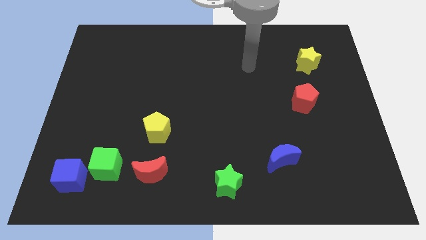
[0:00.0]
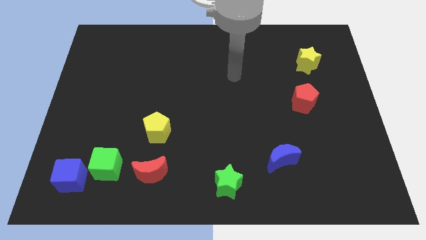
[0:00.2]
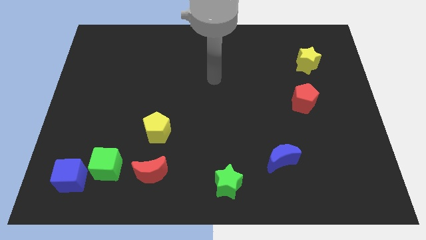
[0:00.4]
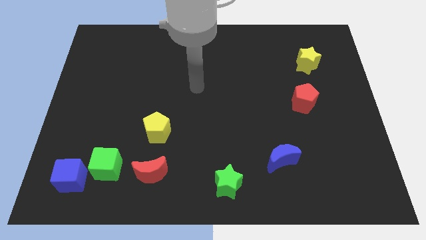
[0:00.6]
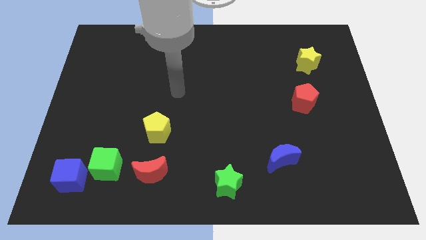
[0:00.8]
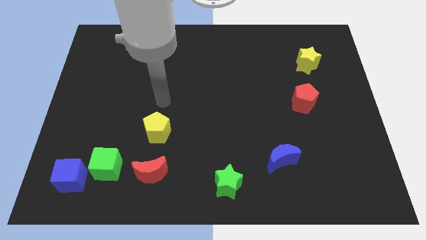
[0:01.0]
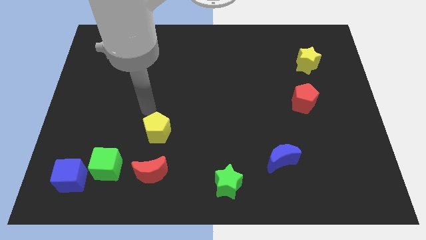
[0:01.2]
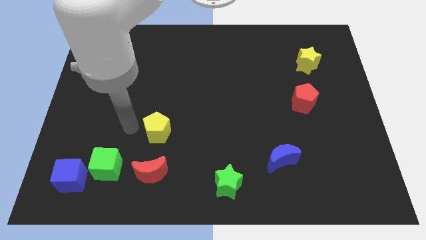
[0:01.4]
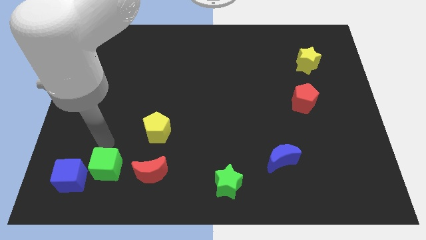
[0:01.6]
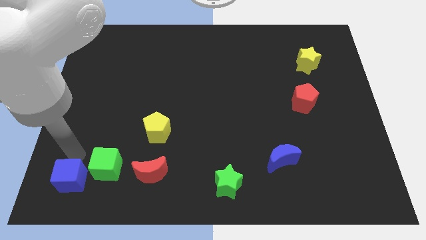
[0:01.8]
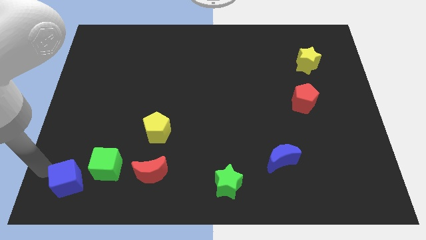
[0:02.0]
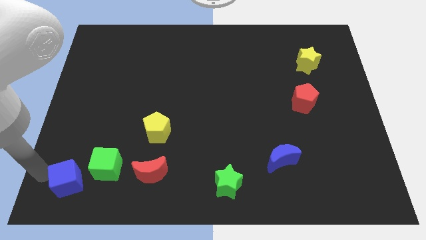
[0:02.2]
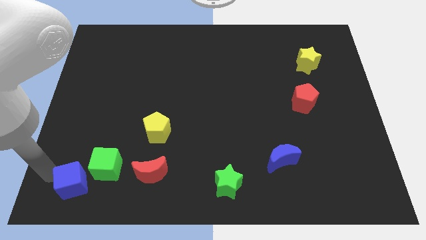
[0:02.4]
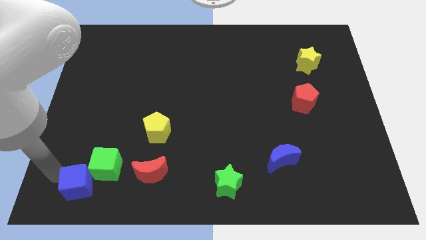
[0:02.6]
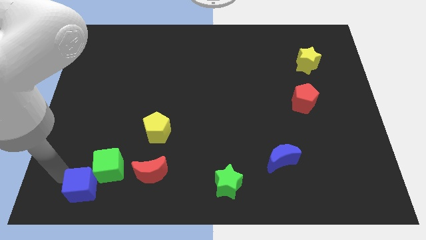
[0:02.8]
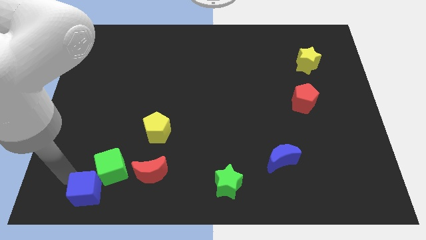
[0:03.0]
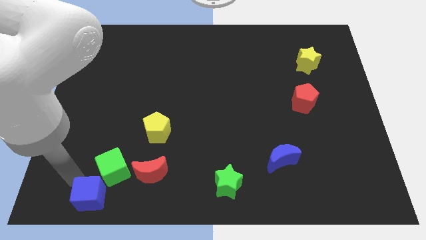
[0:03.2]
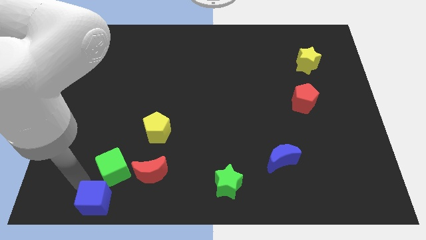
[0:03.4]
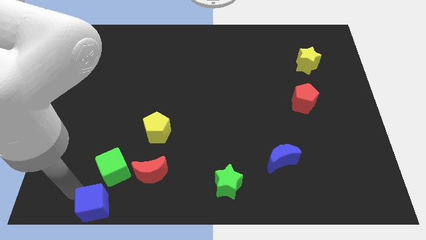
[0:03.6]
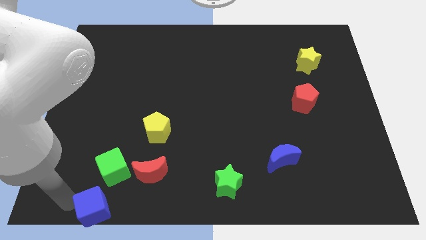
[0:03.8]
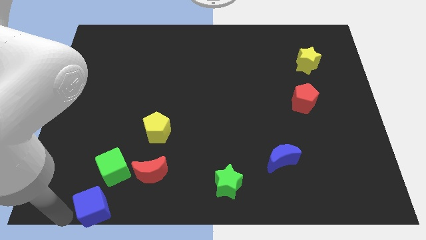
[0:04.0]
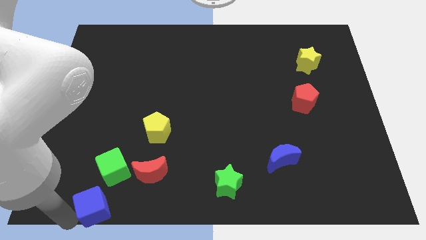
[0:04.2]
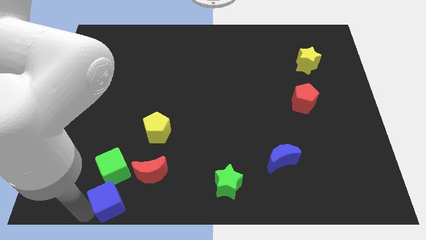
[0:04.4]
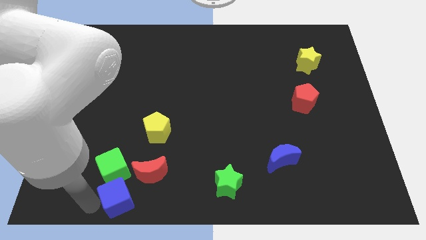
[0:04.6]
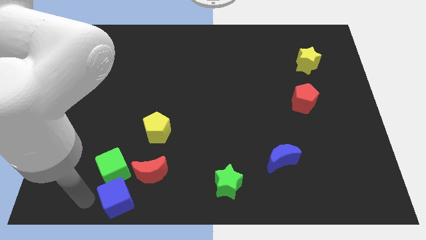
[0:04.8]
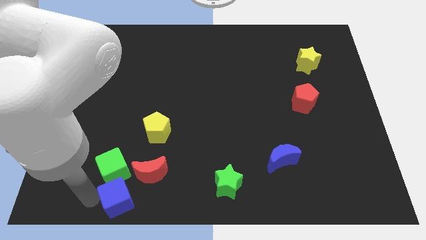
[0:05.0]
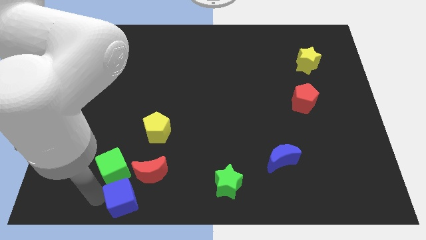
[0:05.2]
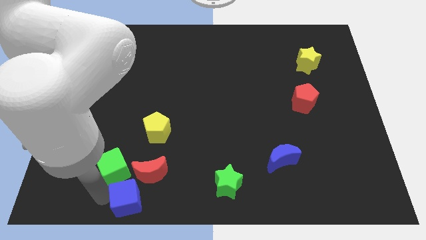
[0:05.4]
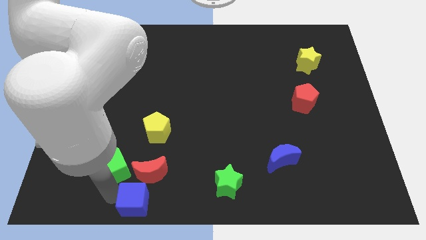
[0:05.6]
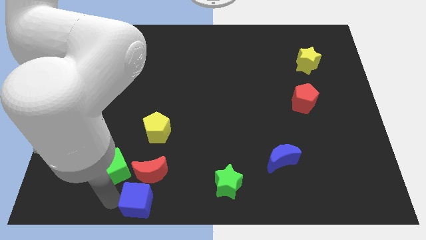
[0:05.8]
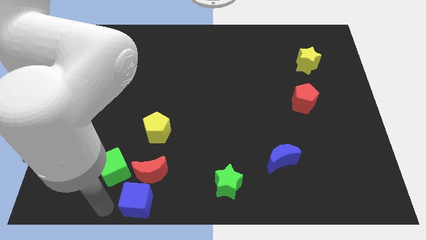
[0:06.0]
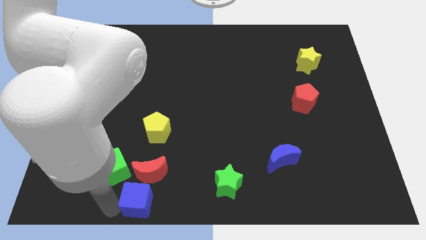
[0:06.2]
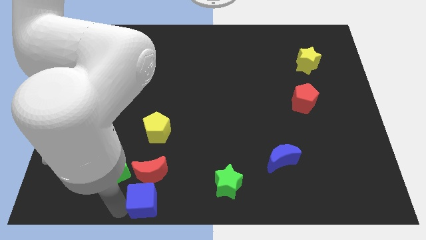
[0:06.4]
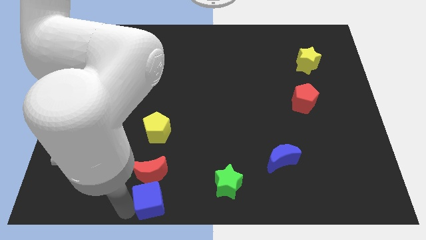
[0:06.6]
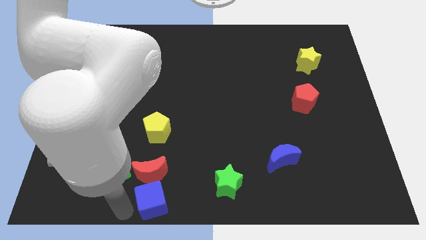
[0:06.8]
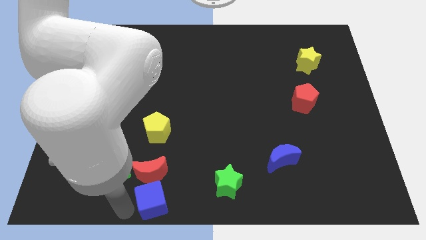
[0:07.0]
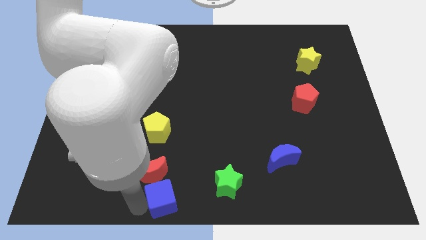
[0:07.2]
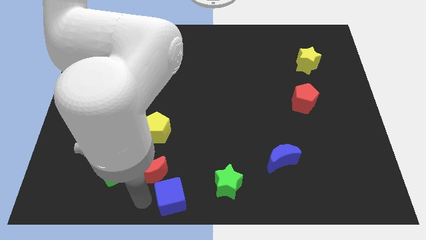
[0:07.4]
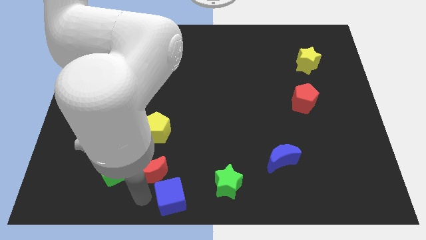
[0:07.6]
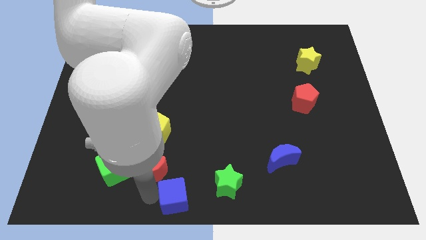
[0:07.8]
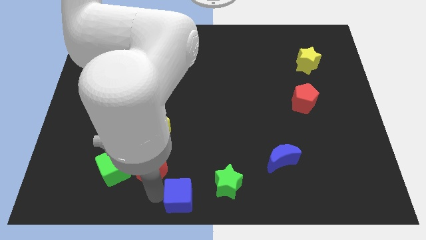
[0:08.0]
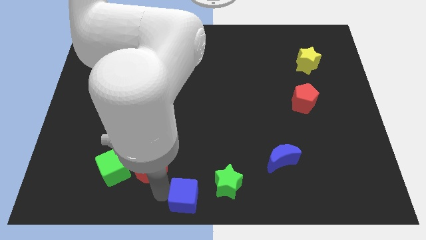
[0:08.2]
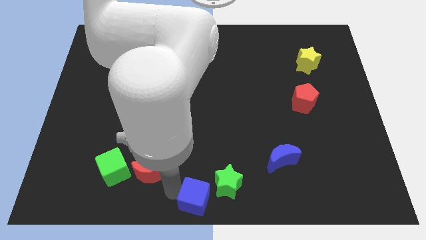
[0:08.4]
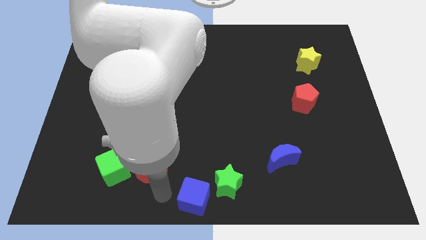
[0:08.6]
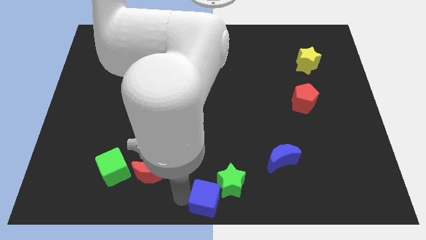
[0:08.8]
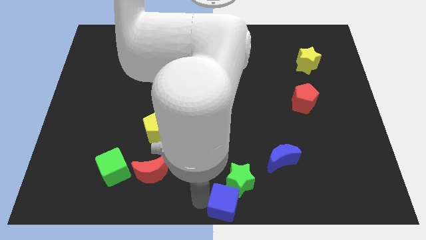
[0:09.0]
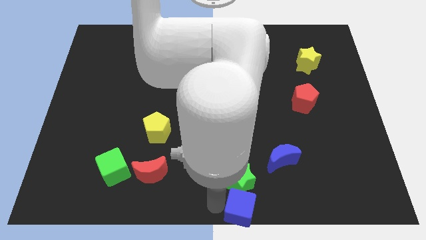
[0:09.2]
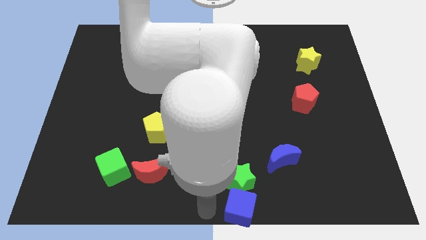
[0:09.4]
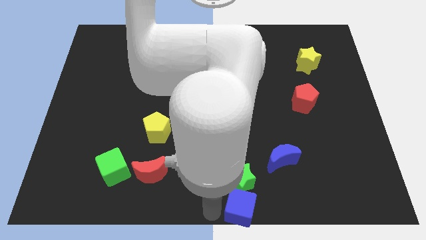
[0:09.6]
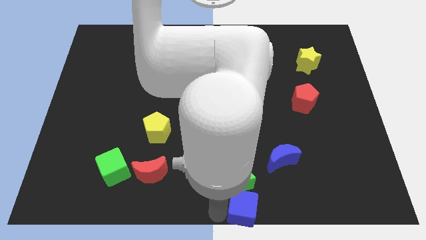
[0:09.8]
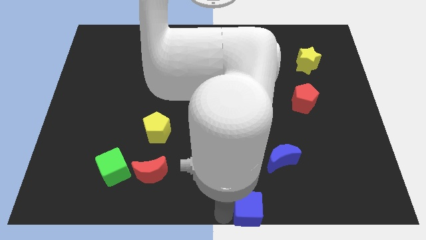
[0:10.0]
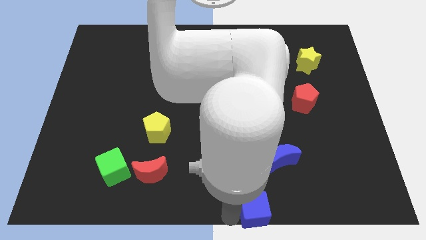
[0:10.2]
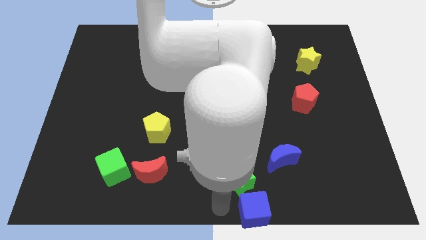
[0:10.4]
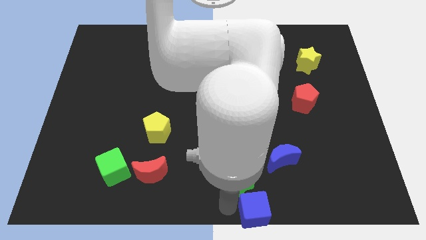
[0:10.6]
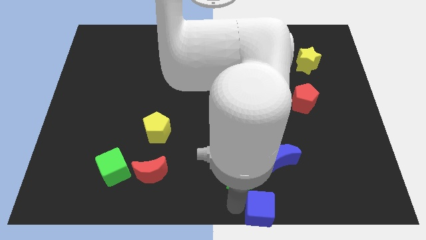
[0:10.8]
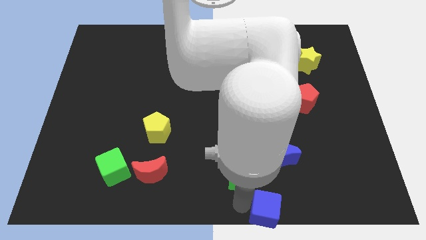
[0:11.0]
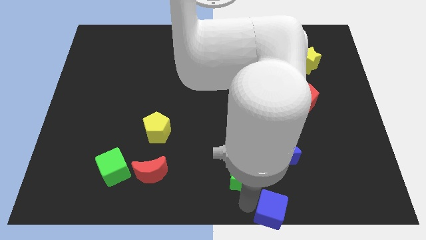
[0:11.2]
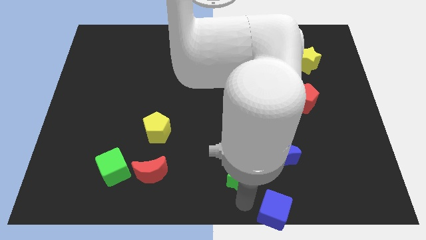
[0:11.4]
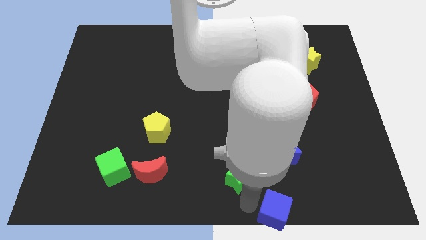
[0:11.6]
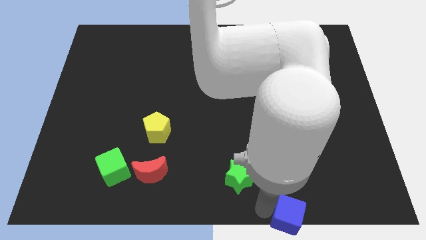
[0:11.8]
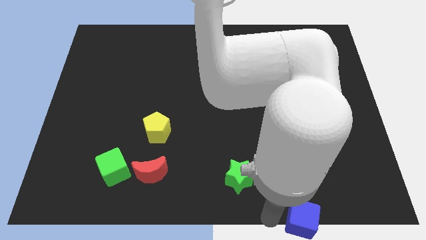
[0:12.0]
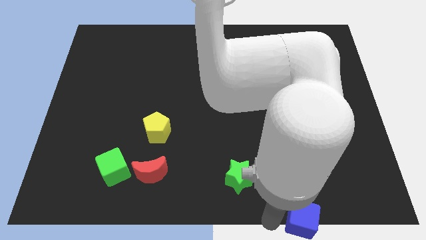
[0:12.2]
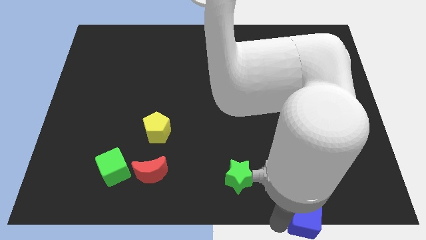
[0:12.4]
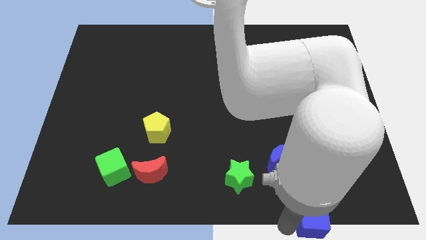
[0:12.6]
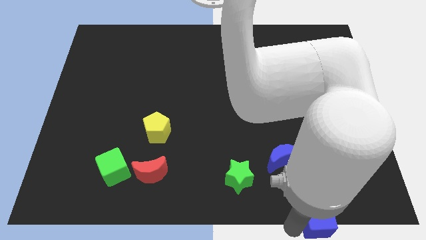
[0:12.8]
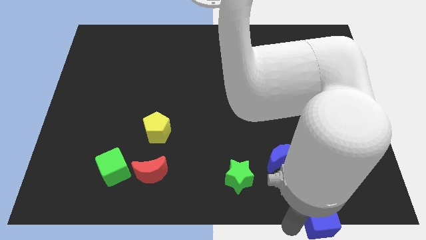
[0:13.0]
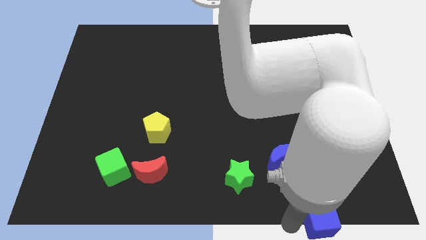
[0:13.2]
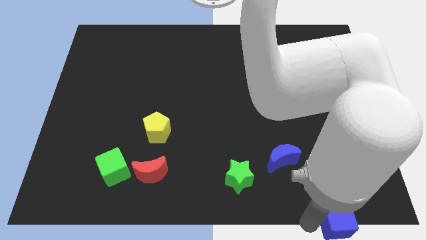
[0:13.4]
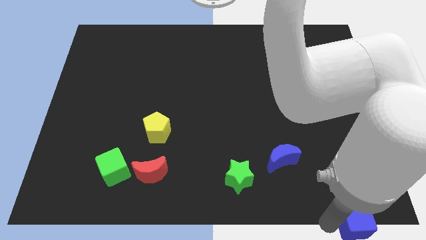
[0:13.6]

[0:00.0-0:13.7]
push the blue cube to the bottom right corner
